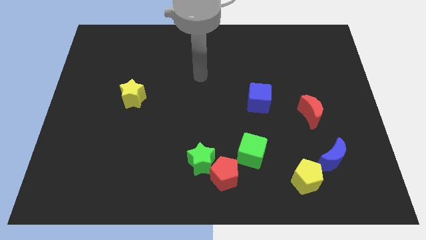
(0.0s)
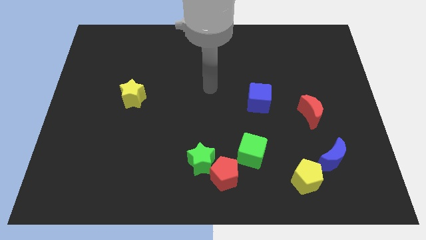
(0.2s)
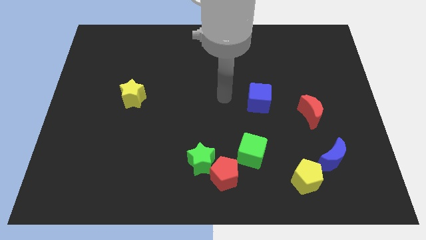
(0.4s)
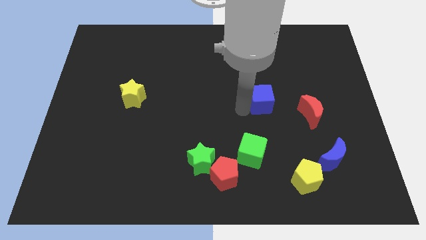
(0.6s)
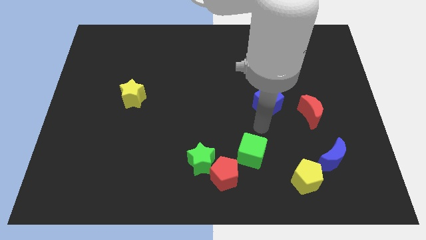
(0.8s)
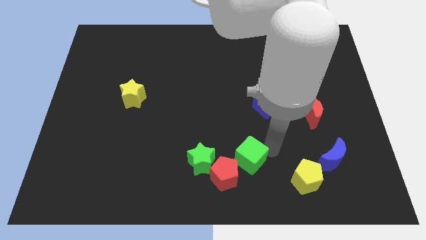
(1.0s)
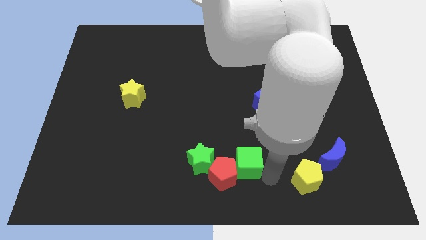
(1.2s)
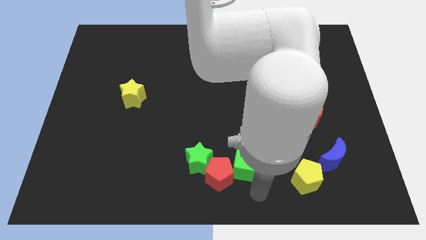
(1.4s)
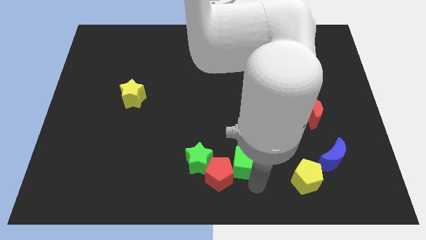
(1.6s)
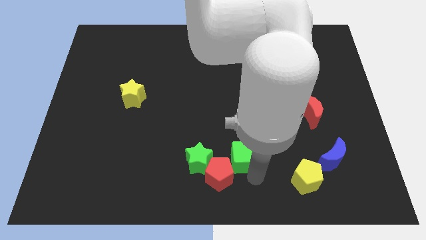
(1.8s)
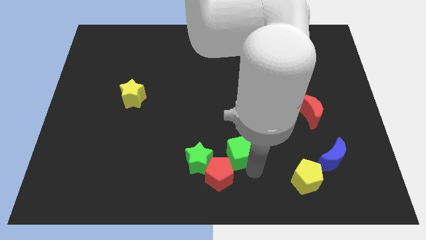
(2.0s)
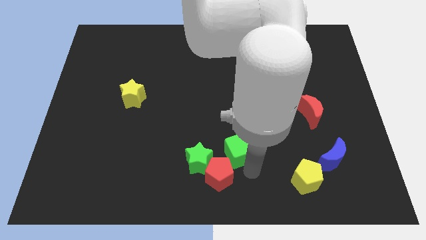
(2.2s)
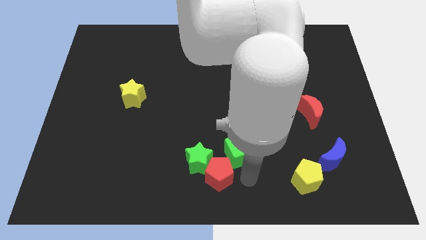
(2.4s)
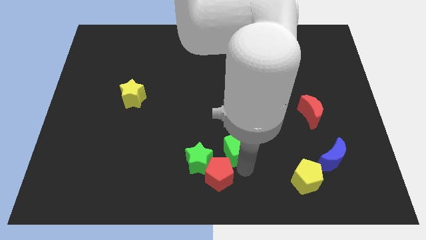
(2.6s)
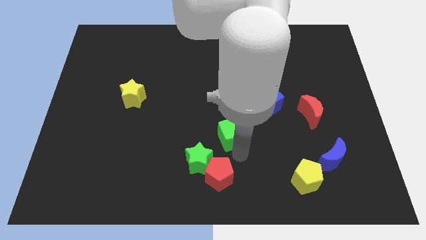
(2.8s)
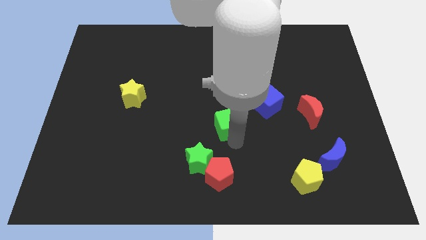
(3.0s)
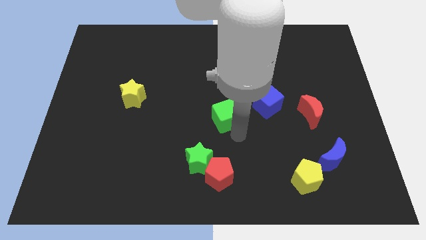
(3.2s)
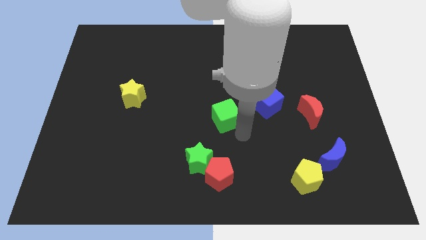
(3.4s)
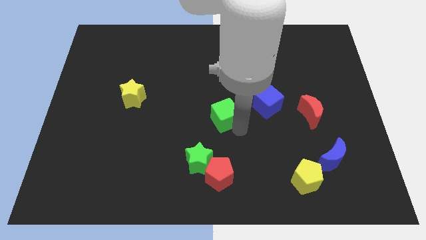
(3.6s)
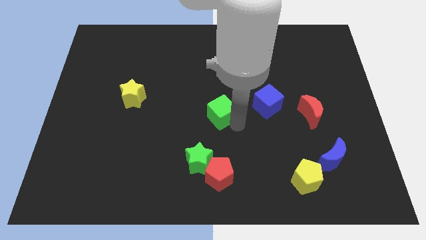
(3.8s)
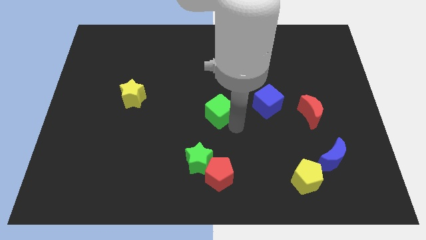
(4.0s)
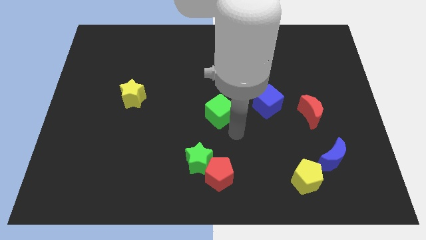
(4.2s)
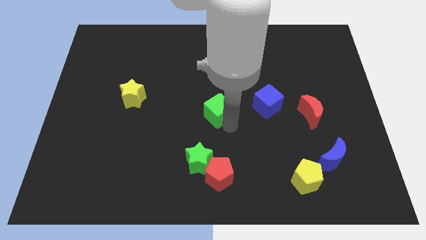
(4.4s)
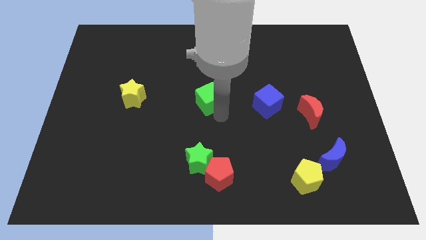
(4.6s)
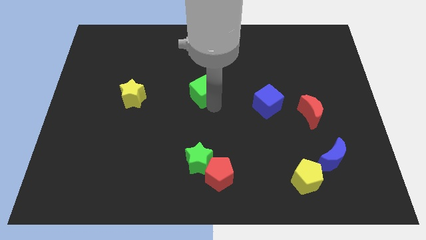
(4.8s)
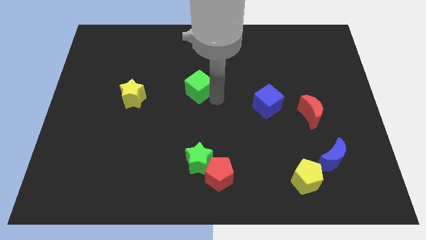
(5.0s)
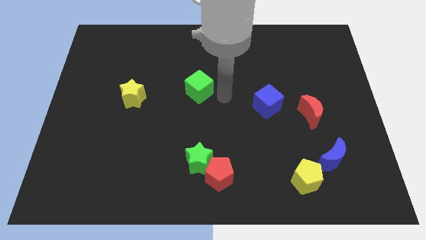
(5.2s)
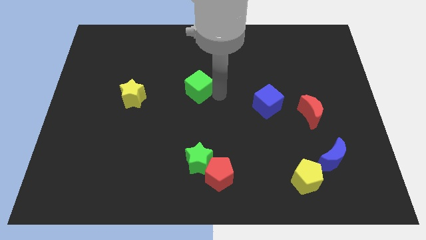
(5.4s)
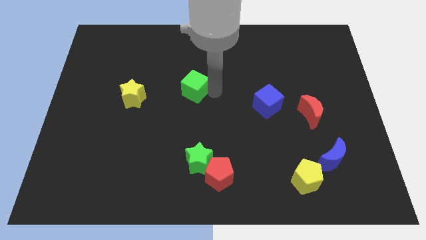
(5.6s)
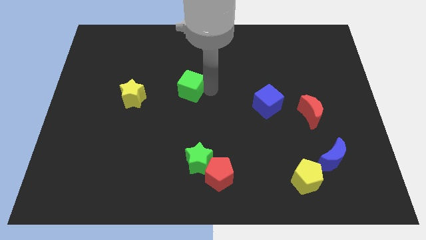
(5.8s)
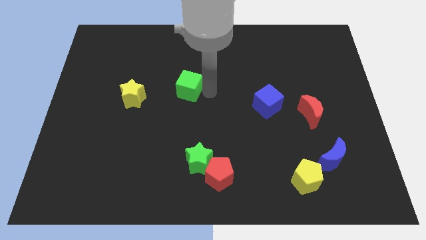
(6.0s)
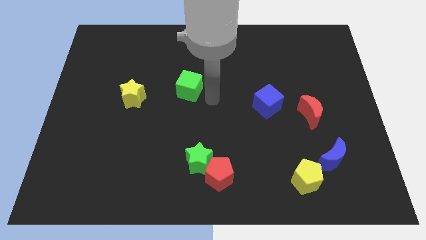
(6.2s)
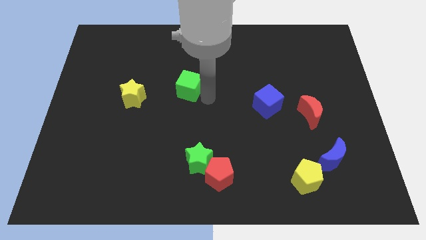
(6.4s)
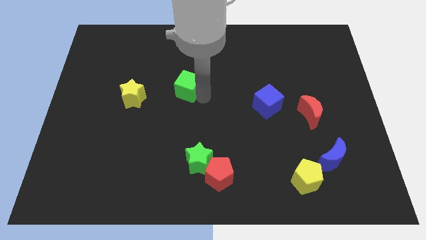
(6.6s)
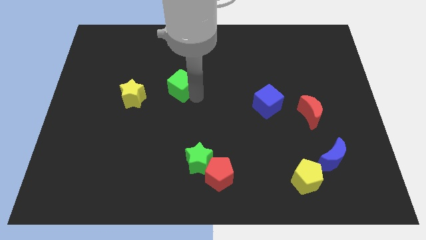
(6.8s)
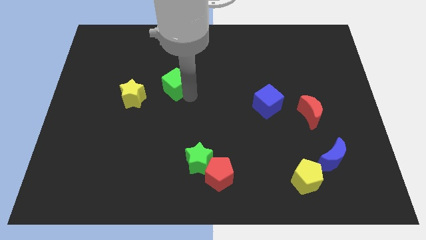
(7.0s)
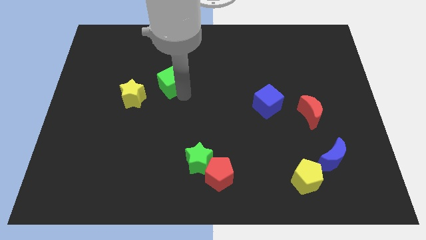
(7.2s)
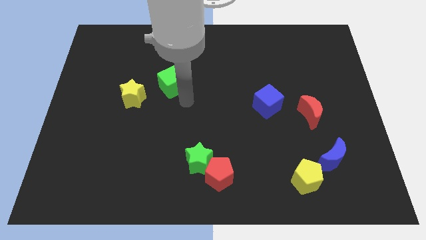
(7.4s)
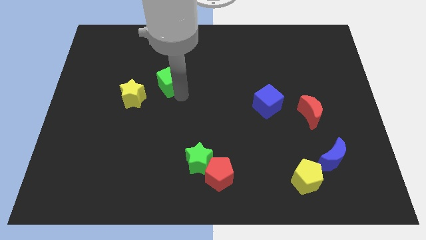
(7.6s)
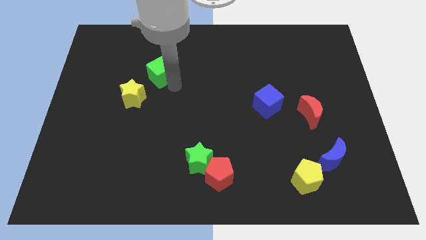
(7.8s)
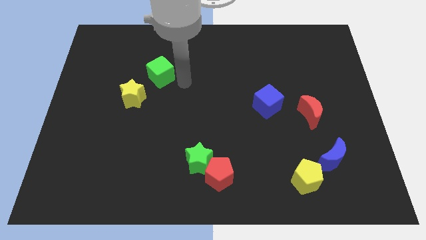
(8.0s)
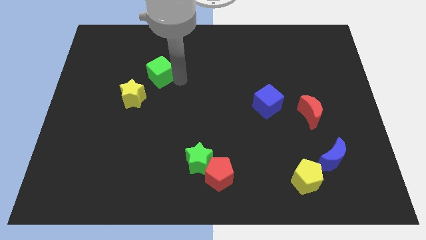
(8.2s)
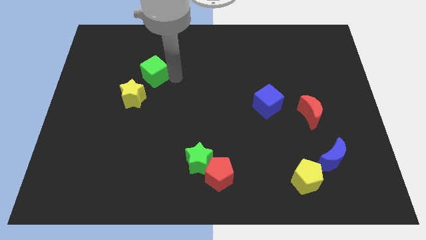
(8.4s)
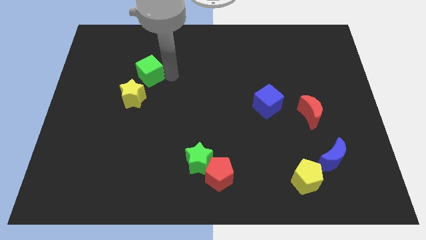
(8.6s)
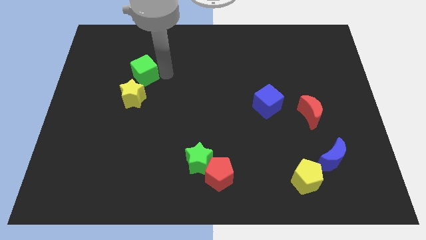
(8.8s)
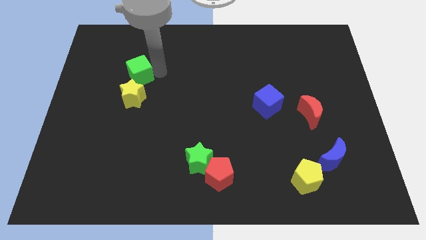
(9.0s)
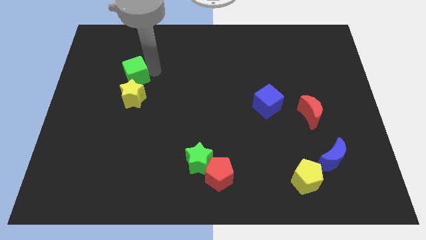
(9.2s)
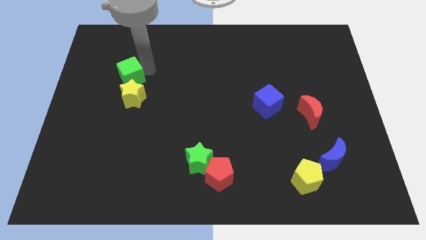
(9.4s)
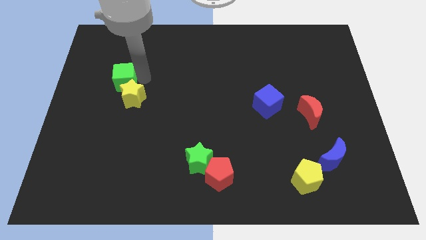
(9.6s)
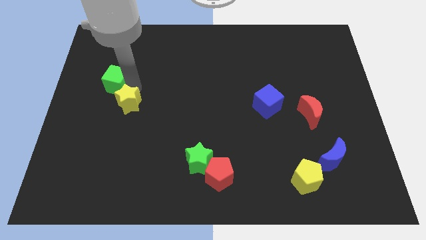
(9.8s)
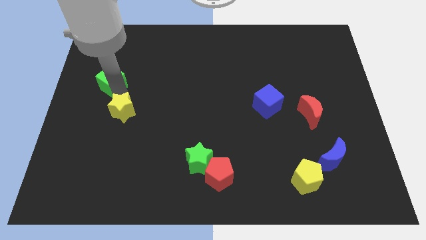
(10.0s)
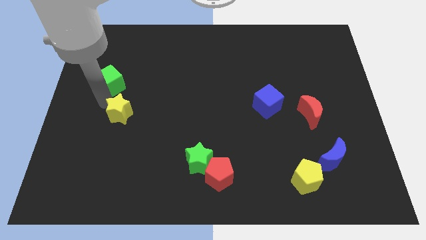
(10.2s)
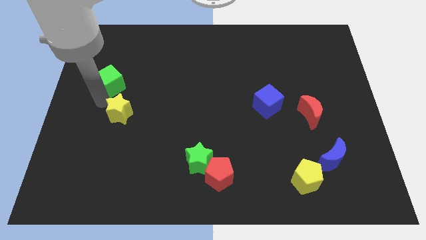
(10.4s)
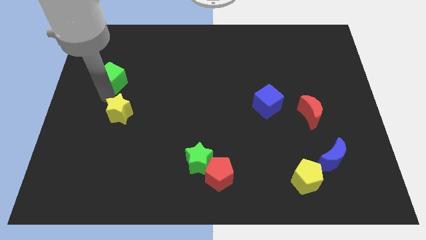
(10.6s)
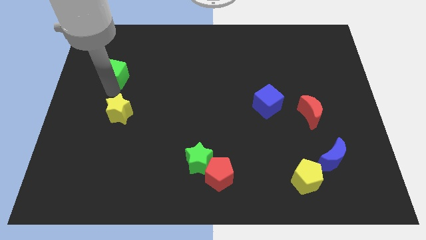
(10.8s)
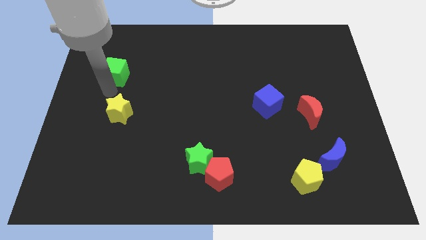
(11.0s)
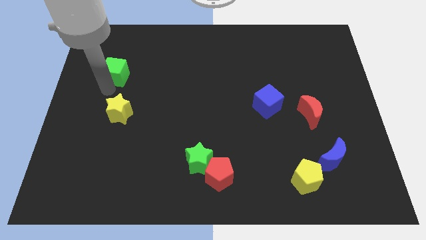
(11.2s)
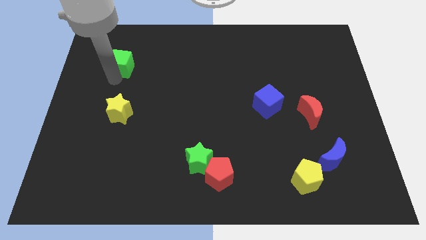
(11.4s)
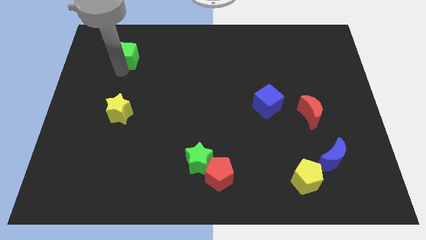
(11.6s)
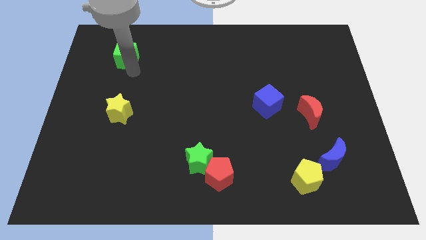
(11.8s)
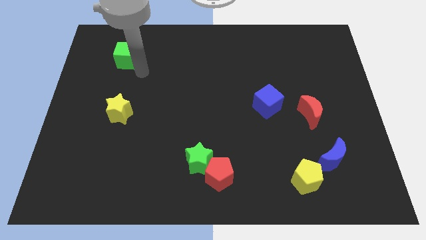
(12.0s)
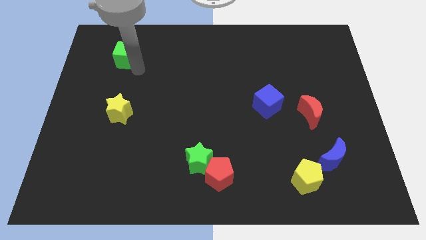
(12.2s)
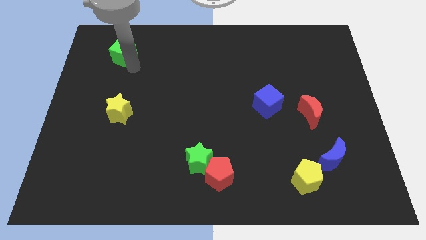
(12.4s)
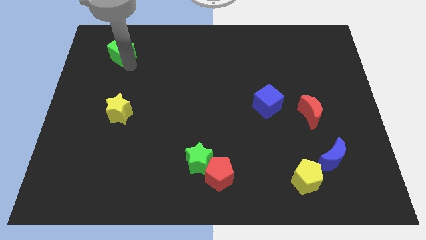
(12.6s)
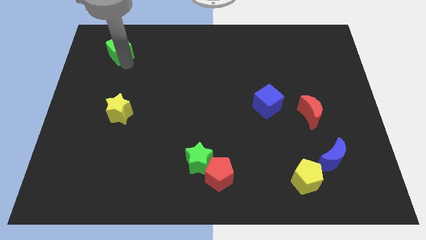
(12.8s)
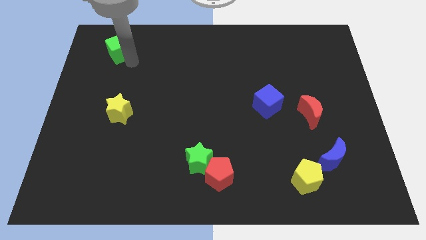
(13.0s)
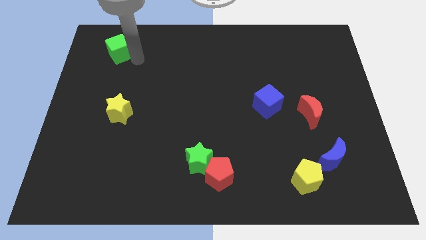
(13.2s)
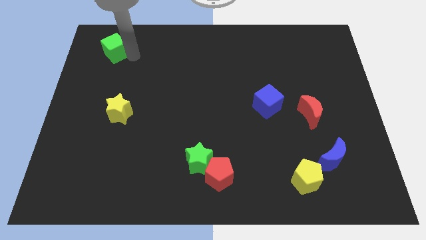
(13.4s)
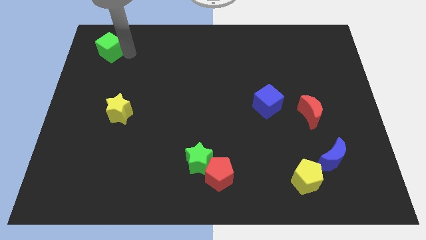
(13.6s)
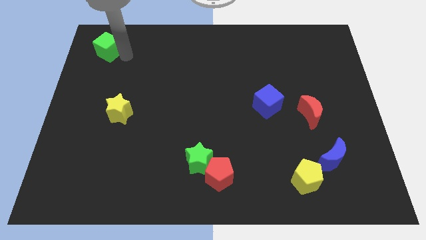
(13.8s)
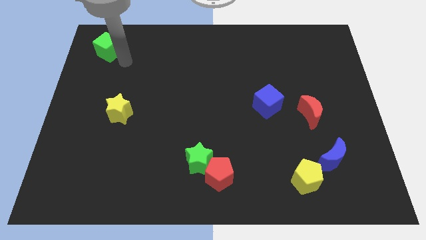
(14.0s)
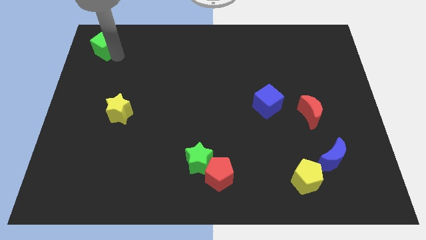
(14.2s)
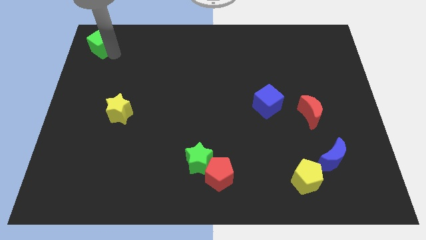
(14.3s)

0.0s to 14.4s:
push the green cube to the top left corner
